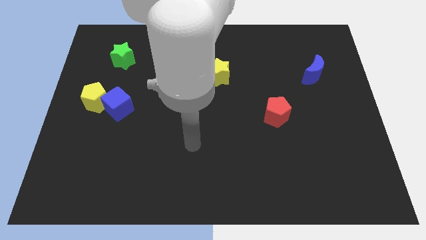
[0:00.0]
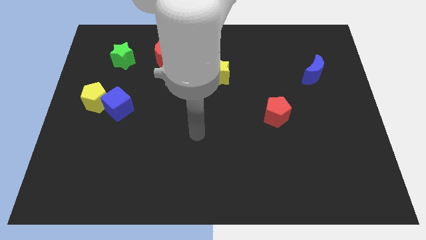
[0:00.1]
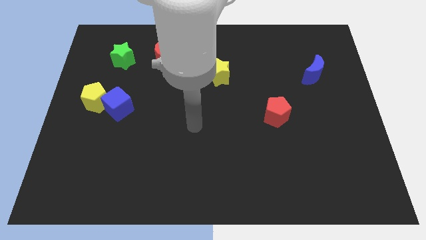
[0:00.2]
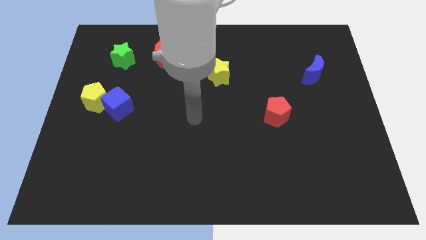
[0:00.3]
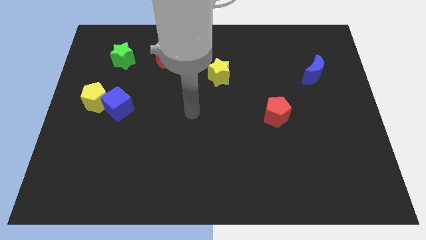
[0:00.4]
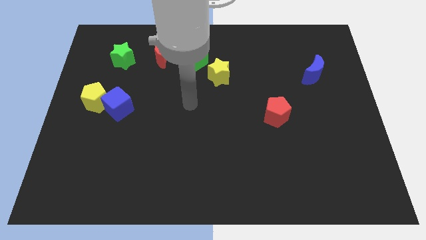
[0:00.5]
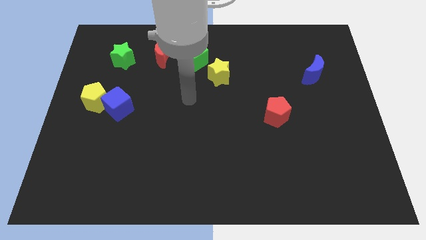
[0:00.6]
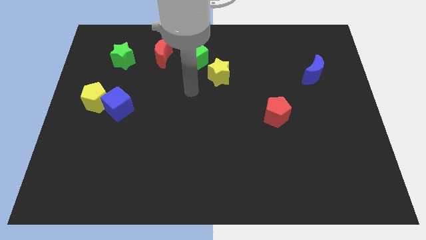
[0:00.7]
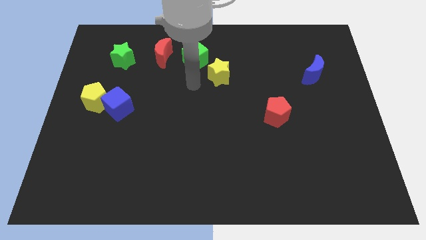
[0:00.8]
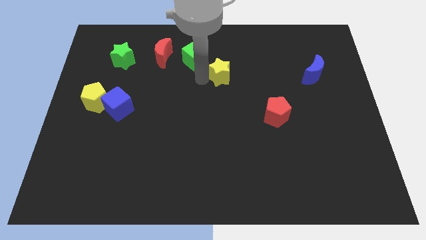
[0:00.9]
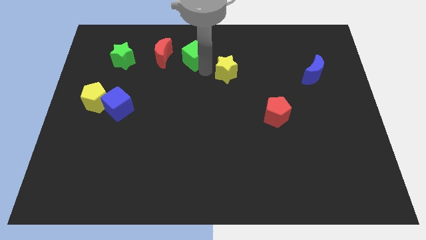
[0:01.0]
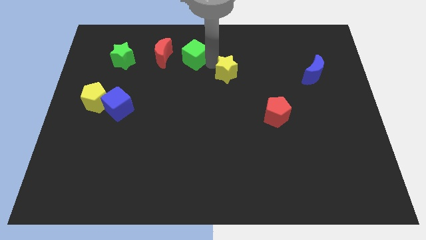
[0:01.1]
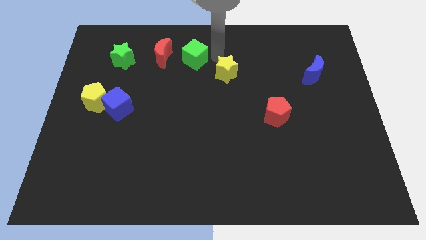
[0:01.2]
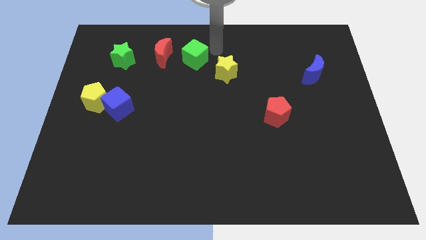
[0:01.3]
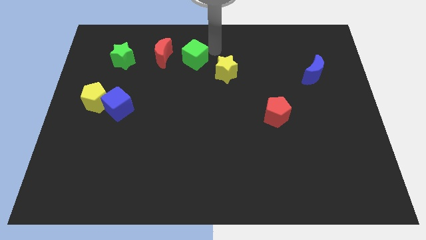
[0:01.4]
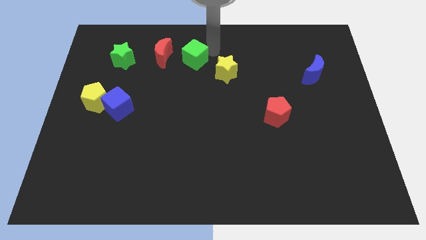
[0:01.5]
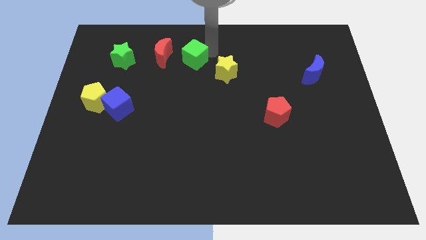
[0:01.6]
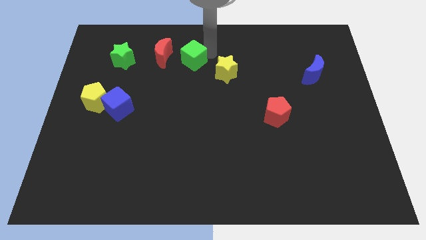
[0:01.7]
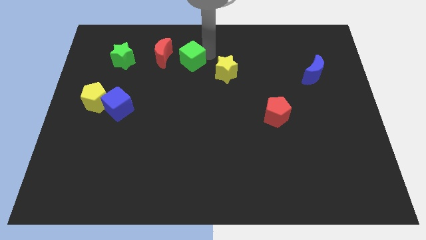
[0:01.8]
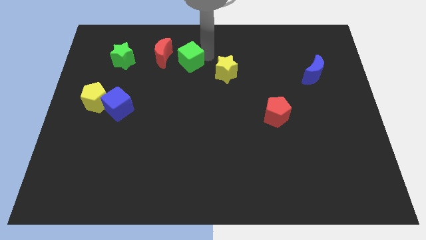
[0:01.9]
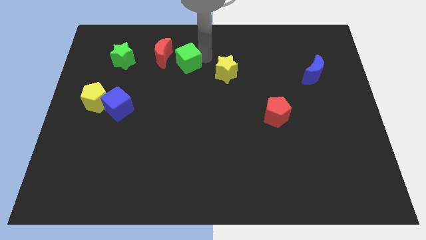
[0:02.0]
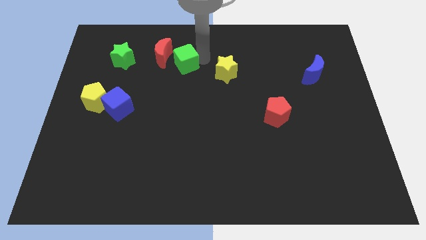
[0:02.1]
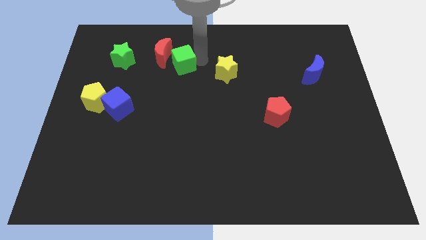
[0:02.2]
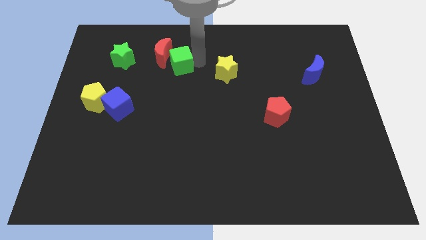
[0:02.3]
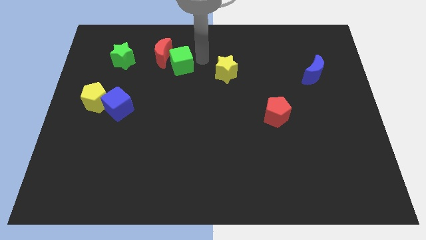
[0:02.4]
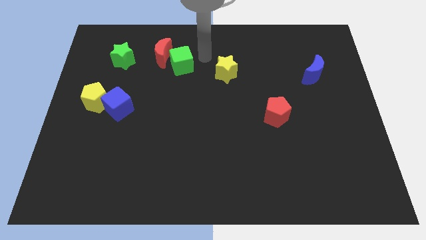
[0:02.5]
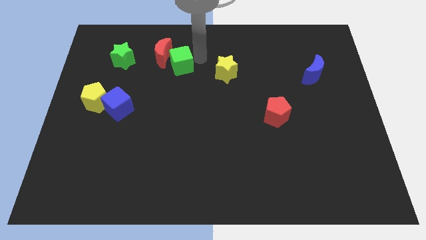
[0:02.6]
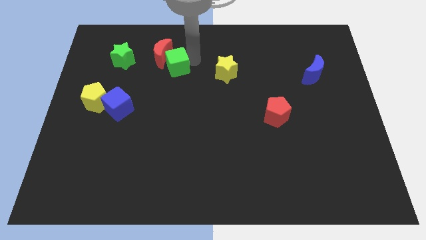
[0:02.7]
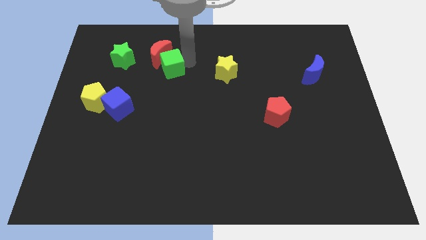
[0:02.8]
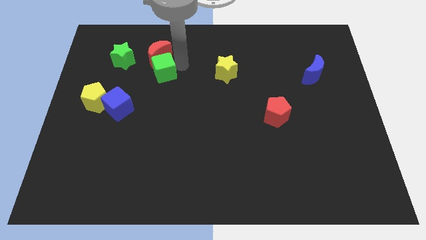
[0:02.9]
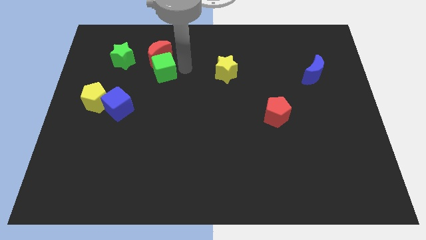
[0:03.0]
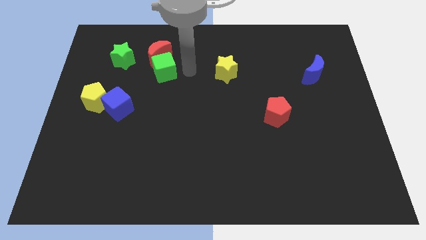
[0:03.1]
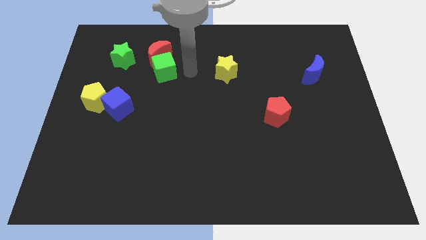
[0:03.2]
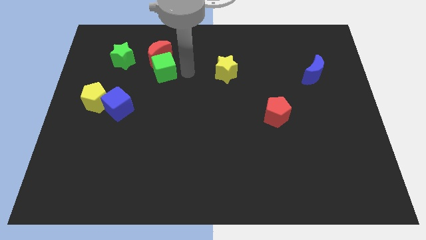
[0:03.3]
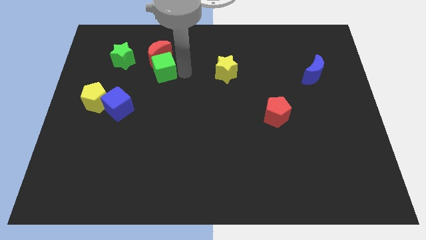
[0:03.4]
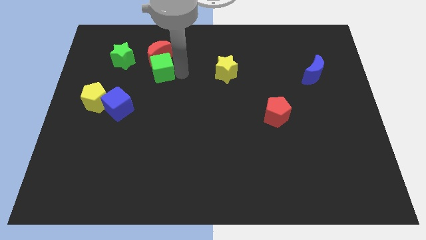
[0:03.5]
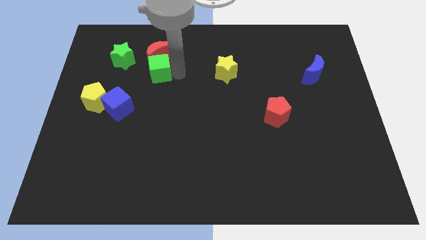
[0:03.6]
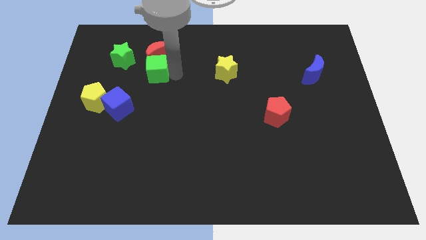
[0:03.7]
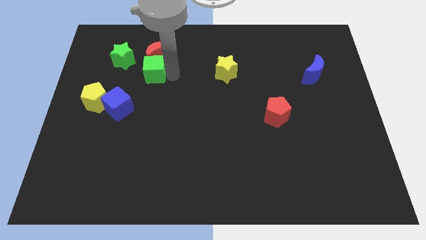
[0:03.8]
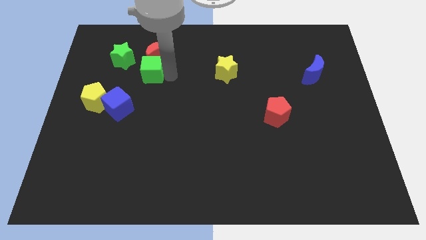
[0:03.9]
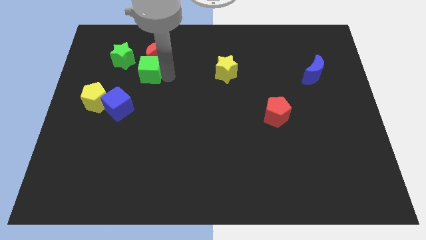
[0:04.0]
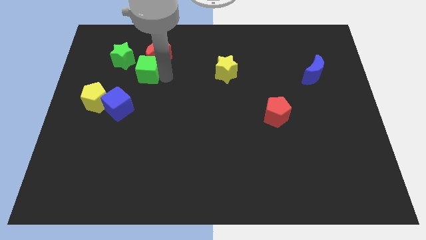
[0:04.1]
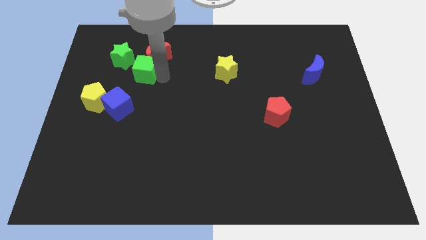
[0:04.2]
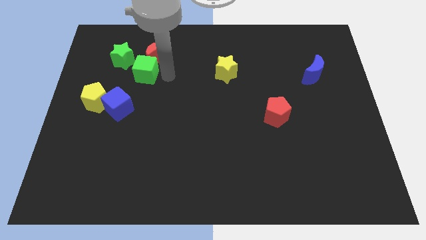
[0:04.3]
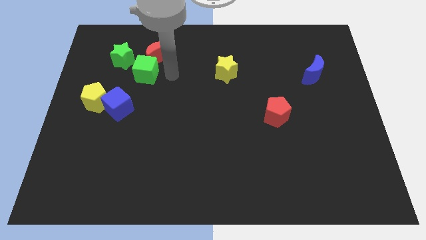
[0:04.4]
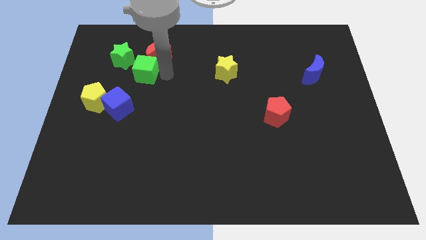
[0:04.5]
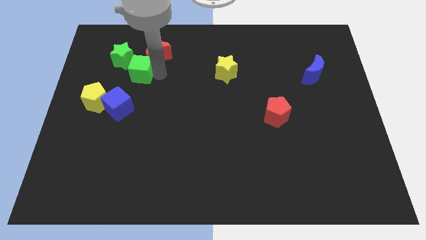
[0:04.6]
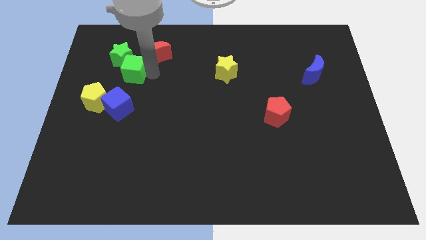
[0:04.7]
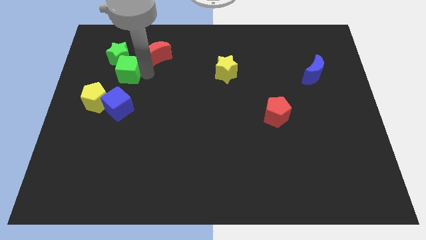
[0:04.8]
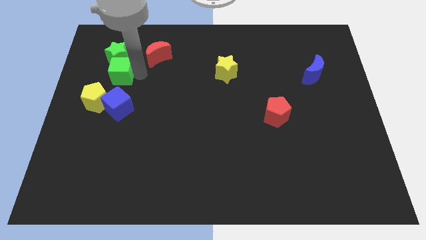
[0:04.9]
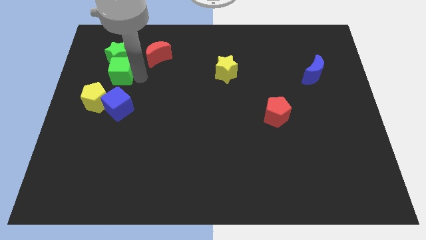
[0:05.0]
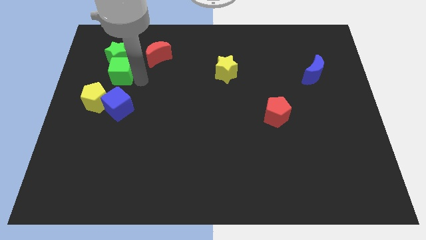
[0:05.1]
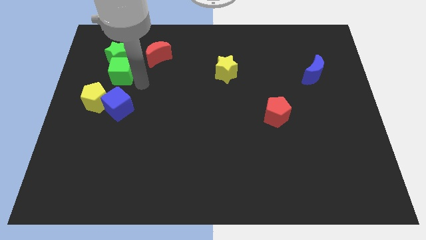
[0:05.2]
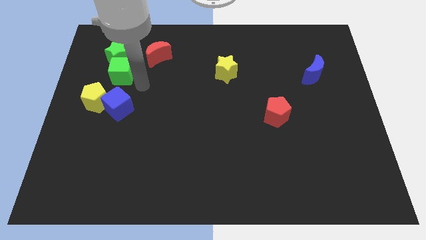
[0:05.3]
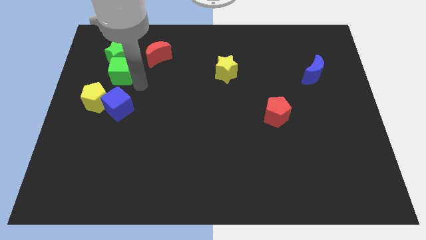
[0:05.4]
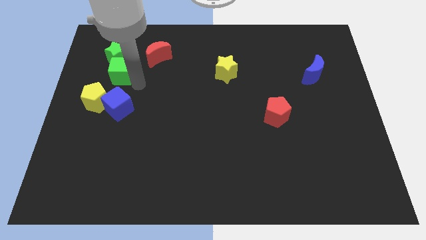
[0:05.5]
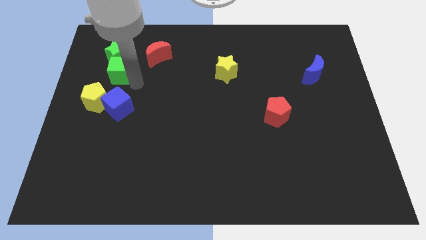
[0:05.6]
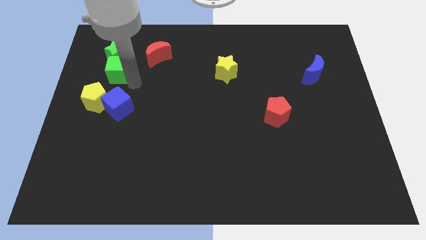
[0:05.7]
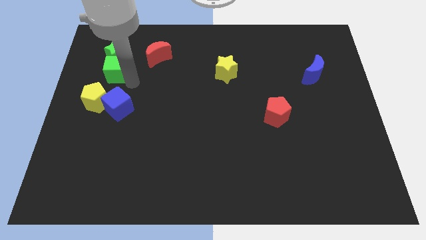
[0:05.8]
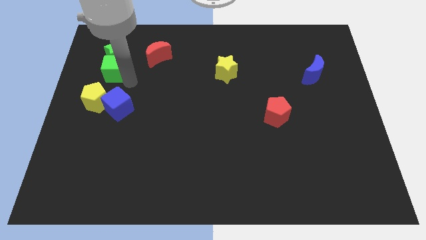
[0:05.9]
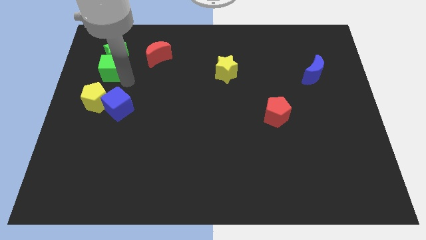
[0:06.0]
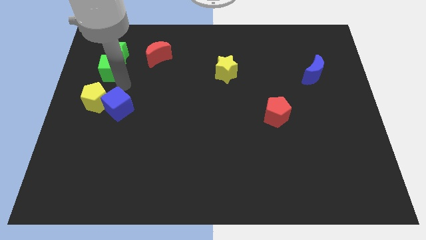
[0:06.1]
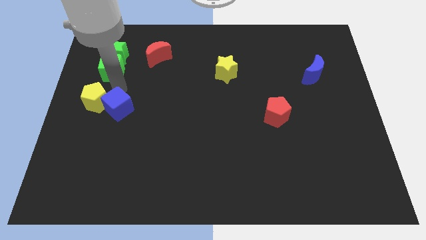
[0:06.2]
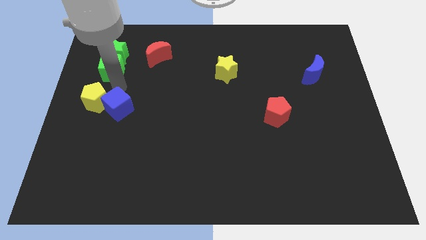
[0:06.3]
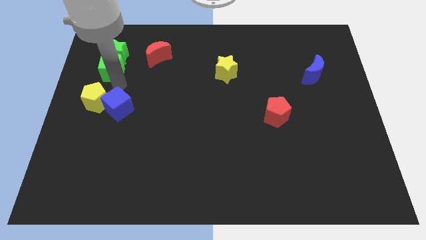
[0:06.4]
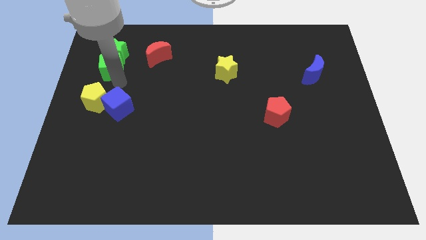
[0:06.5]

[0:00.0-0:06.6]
push the green cube just left of the red moon
